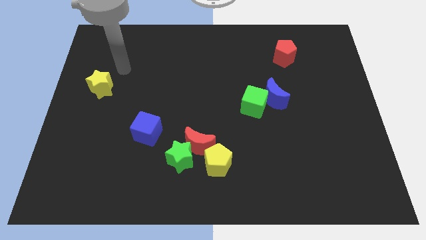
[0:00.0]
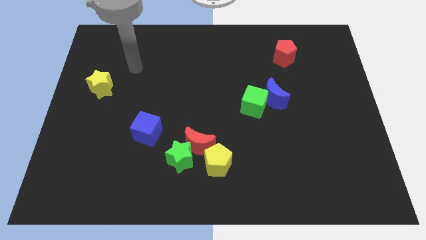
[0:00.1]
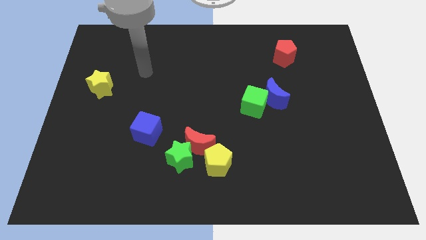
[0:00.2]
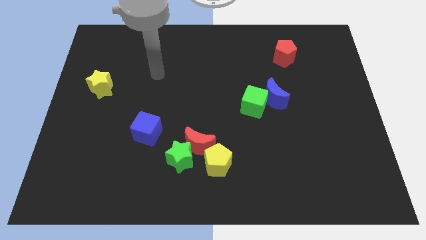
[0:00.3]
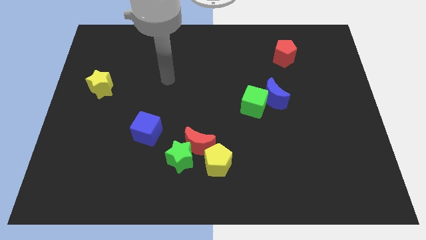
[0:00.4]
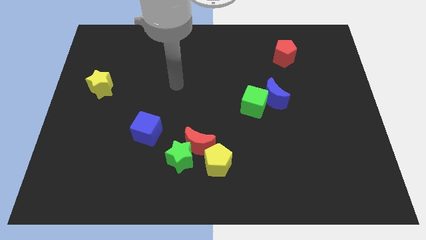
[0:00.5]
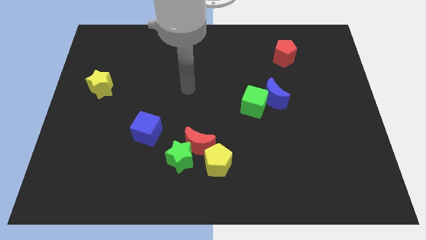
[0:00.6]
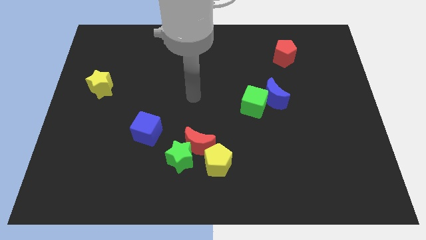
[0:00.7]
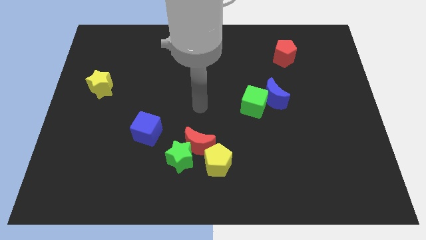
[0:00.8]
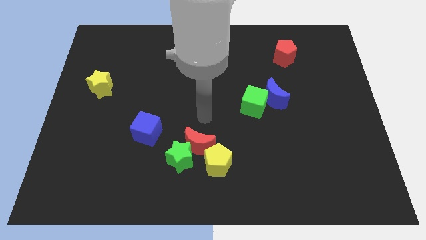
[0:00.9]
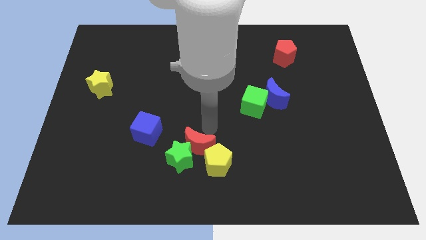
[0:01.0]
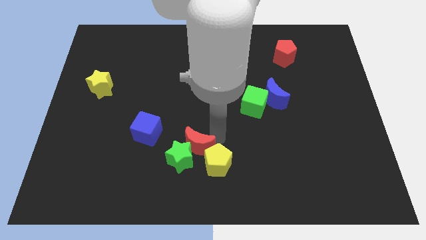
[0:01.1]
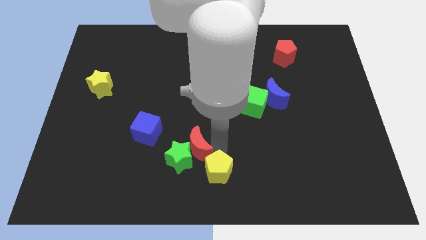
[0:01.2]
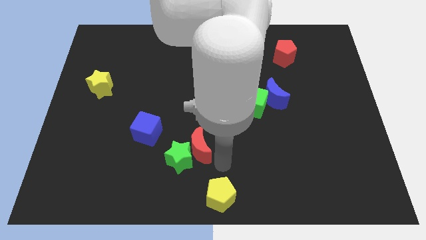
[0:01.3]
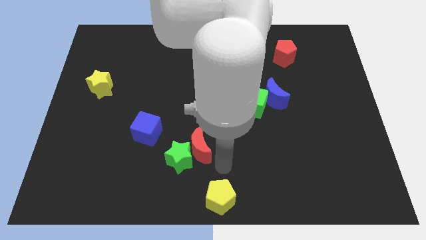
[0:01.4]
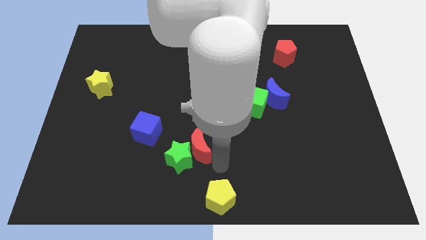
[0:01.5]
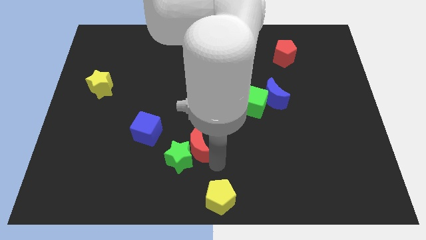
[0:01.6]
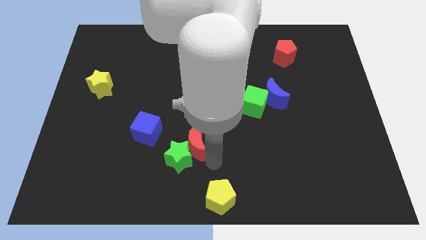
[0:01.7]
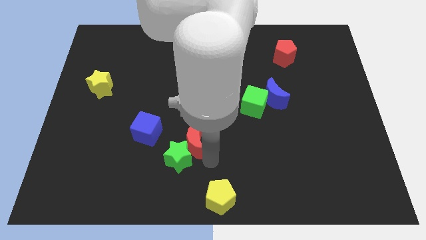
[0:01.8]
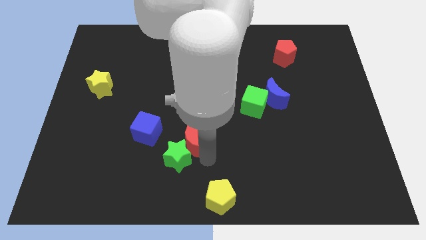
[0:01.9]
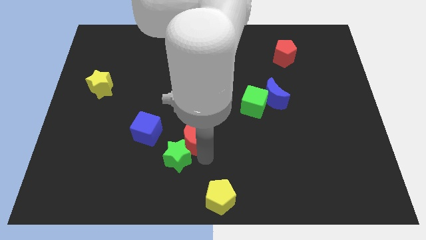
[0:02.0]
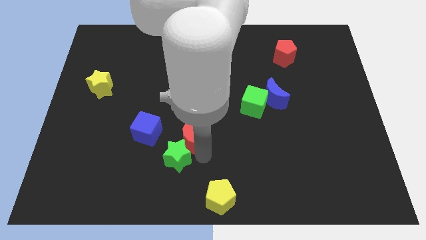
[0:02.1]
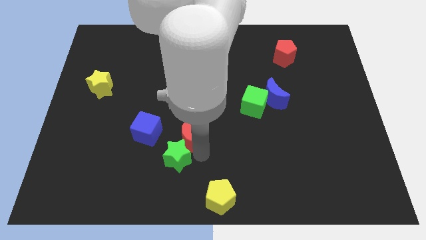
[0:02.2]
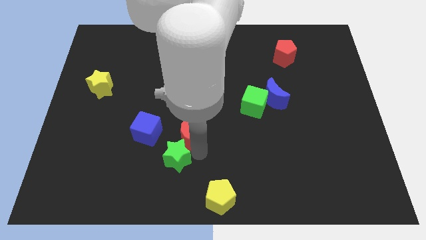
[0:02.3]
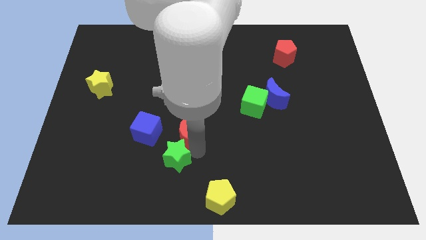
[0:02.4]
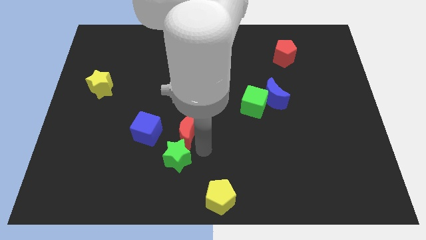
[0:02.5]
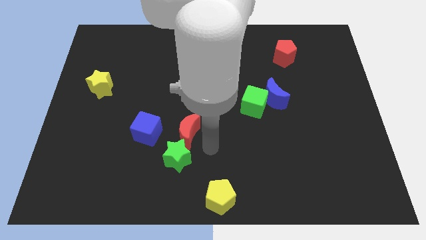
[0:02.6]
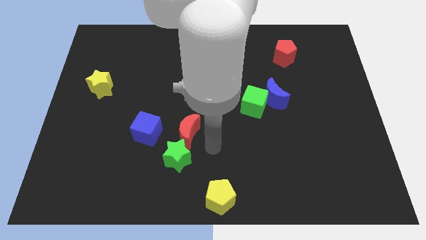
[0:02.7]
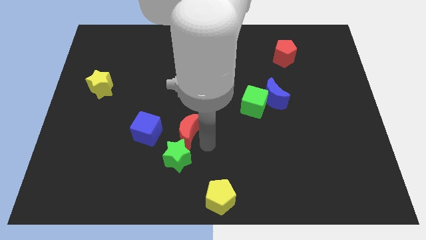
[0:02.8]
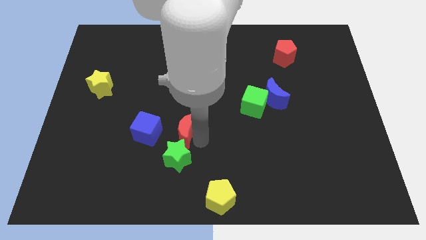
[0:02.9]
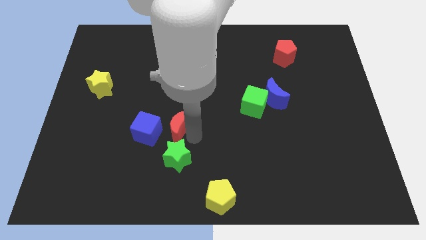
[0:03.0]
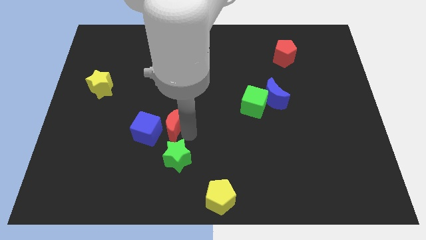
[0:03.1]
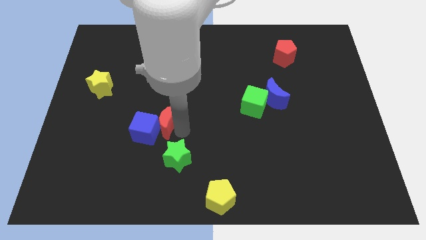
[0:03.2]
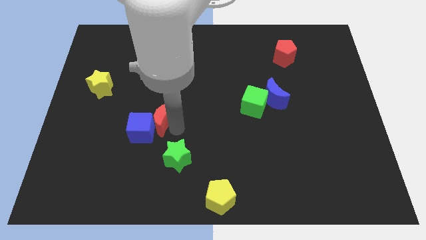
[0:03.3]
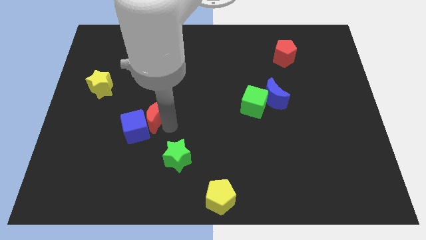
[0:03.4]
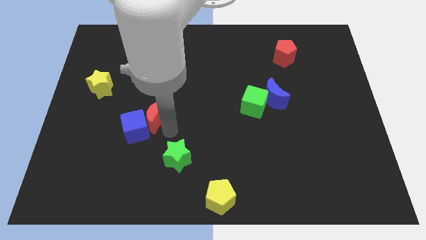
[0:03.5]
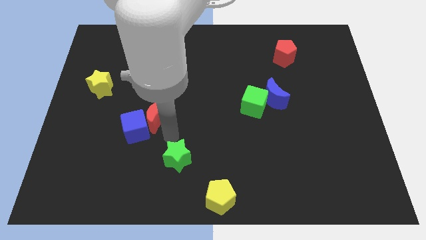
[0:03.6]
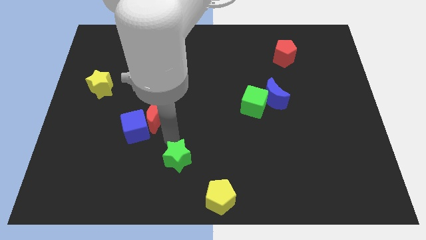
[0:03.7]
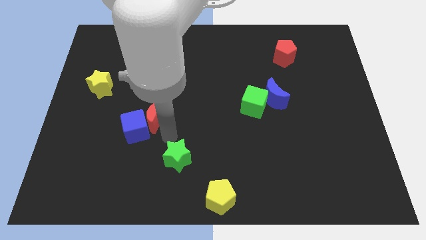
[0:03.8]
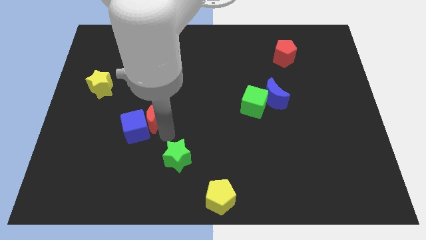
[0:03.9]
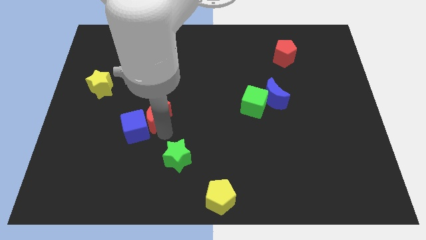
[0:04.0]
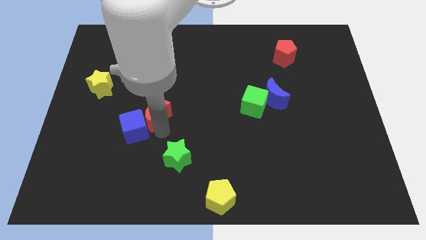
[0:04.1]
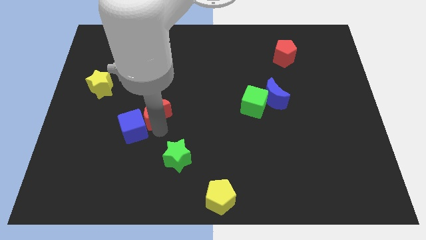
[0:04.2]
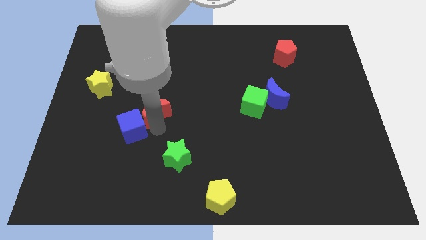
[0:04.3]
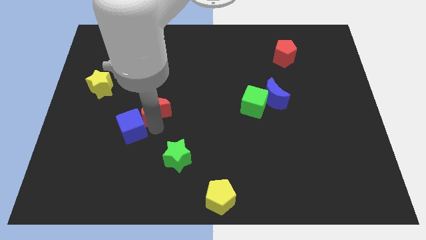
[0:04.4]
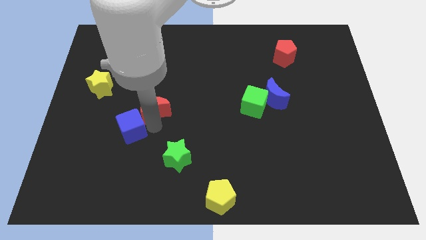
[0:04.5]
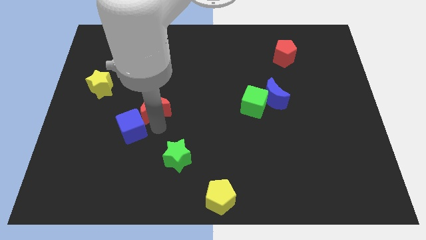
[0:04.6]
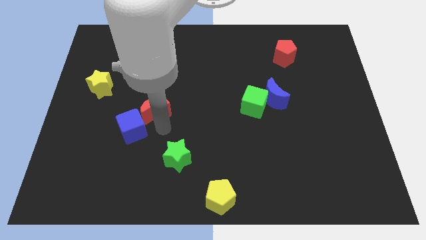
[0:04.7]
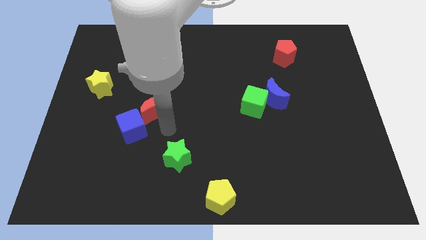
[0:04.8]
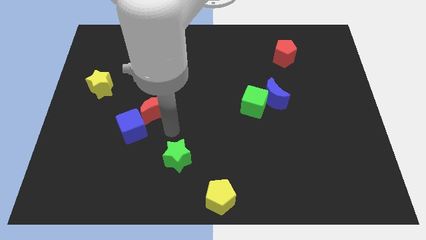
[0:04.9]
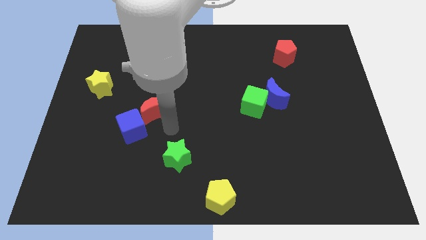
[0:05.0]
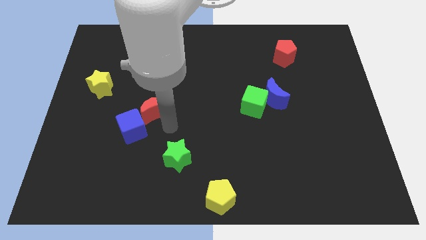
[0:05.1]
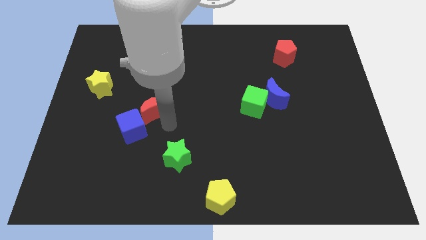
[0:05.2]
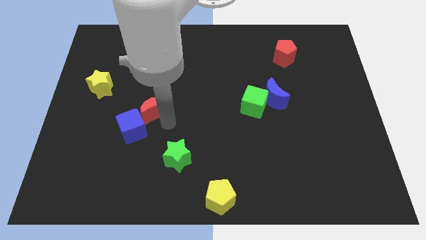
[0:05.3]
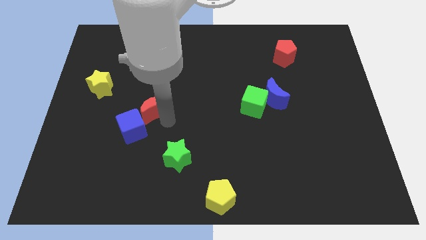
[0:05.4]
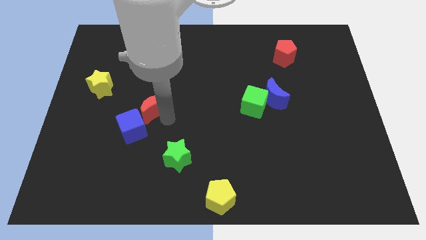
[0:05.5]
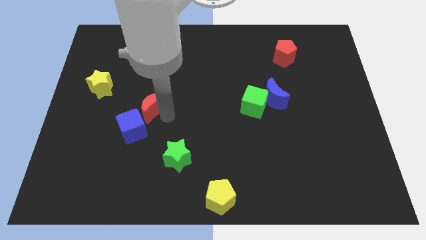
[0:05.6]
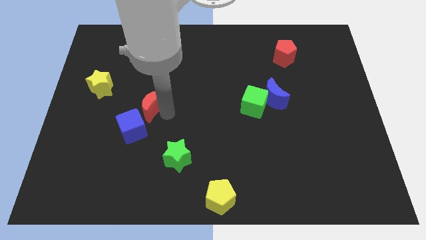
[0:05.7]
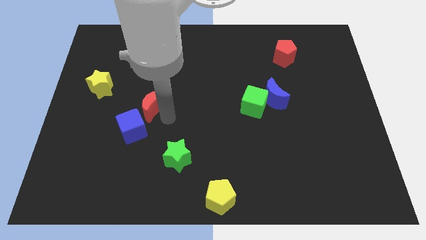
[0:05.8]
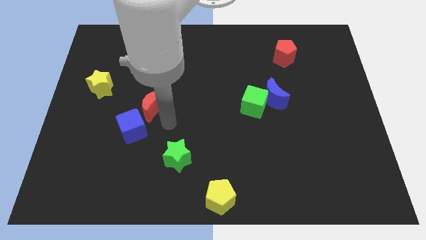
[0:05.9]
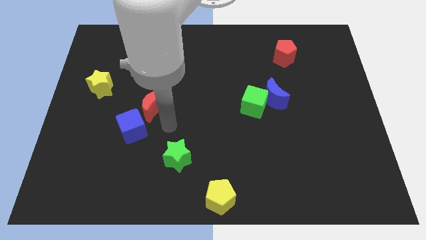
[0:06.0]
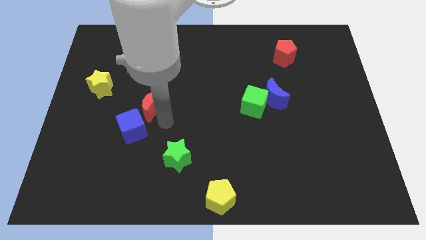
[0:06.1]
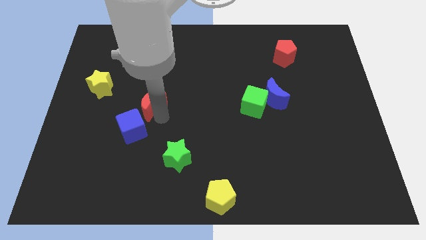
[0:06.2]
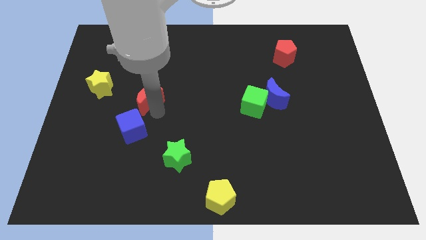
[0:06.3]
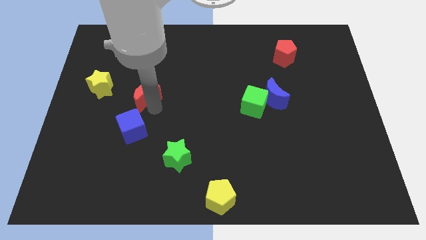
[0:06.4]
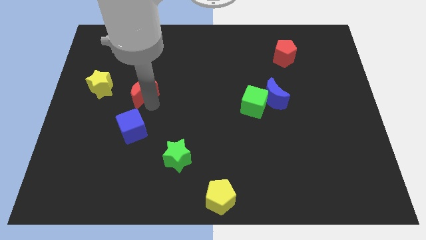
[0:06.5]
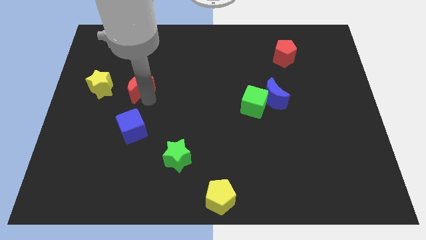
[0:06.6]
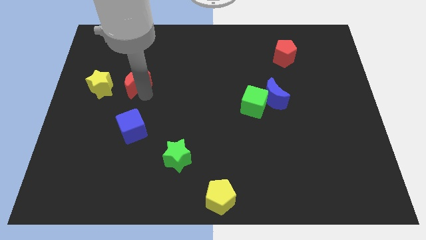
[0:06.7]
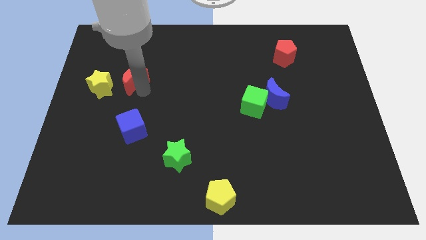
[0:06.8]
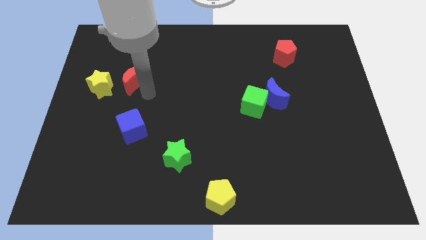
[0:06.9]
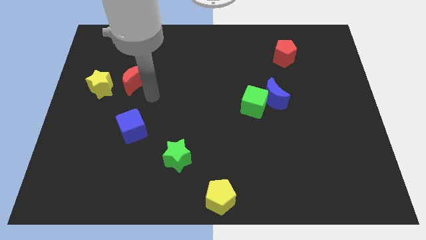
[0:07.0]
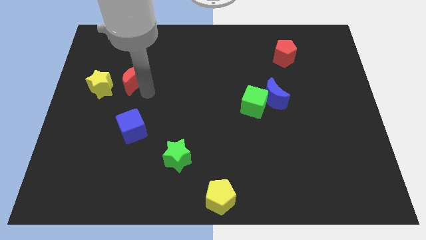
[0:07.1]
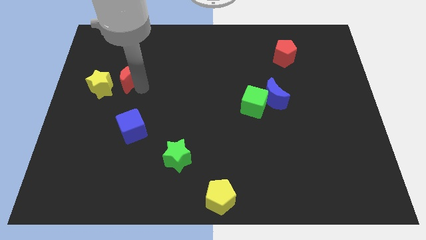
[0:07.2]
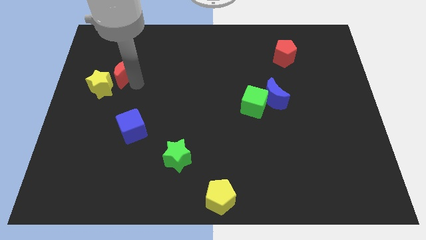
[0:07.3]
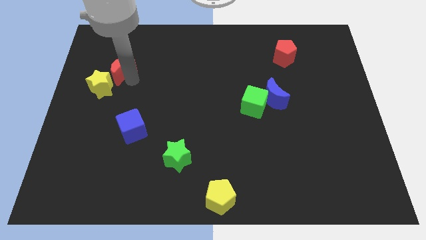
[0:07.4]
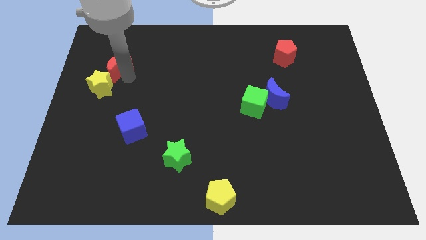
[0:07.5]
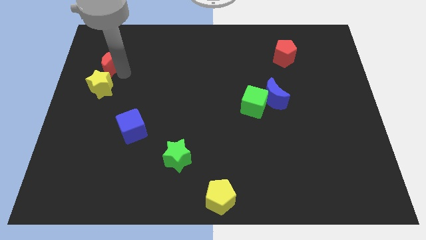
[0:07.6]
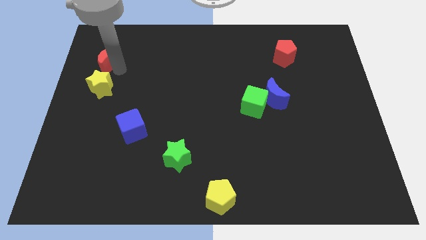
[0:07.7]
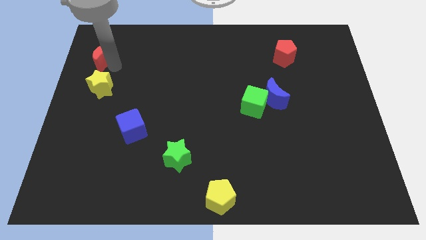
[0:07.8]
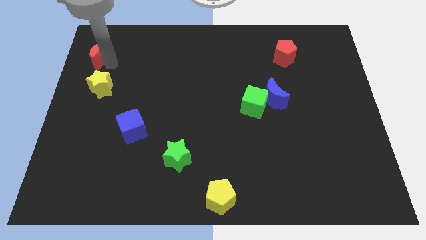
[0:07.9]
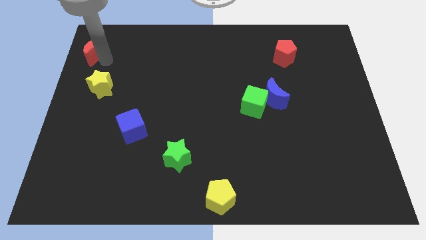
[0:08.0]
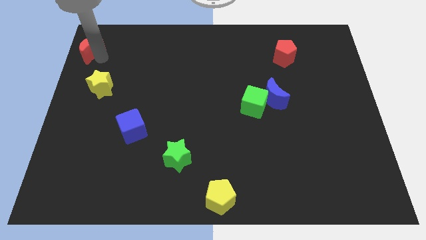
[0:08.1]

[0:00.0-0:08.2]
put the red moon to the top left
